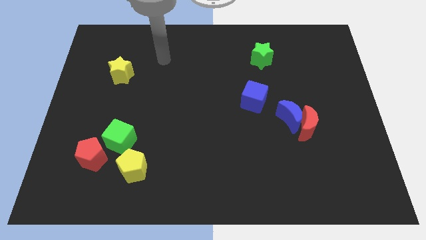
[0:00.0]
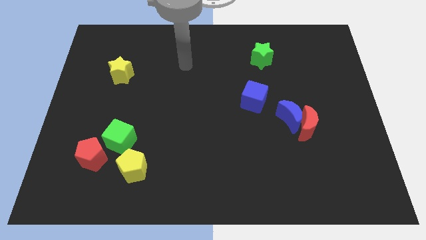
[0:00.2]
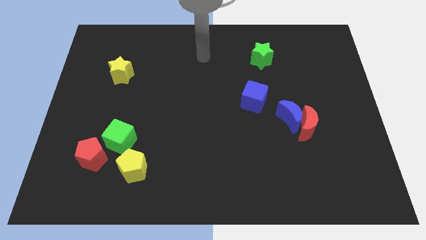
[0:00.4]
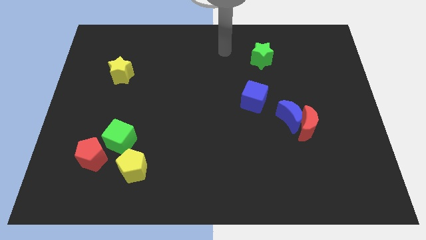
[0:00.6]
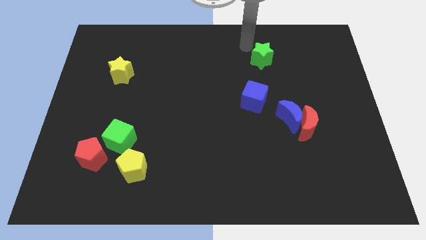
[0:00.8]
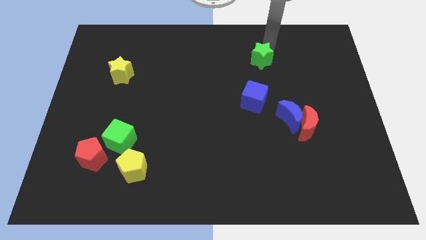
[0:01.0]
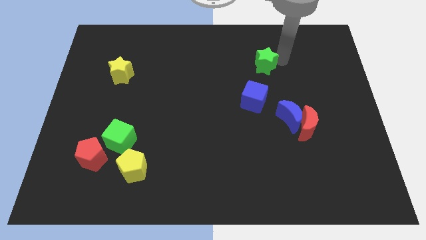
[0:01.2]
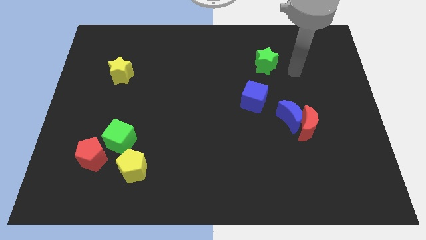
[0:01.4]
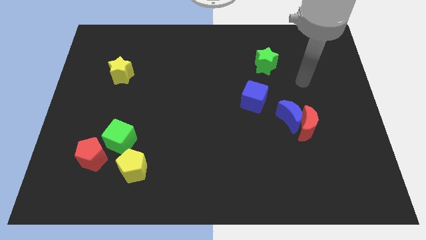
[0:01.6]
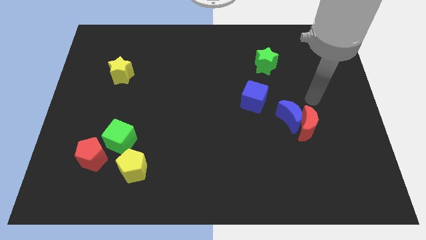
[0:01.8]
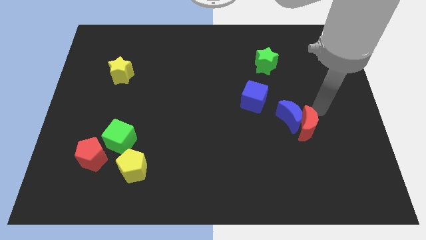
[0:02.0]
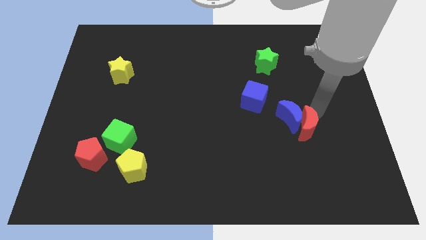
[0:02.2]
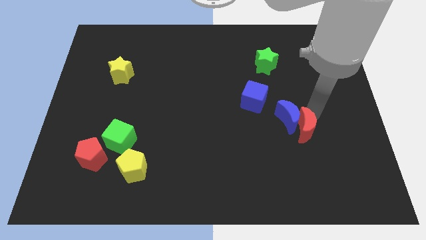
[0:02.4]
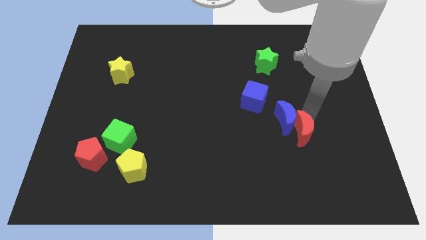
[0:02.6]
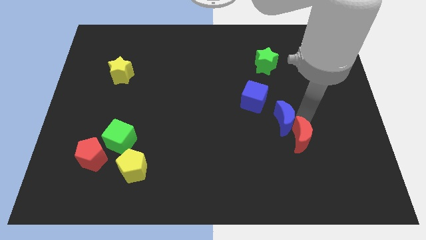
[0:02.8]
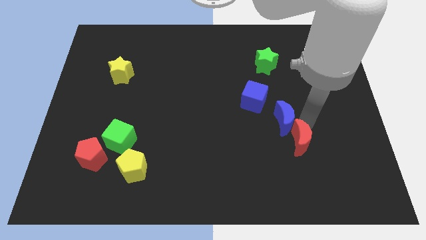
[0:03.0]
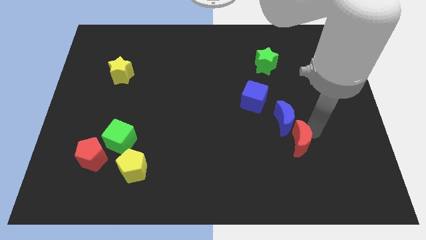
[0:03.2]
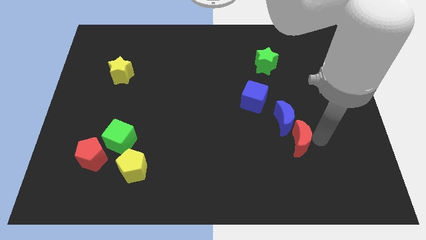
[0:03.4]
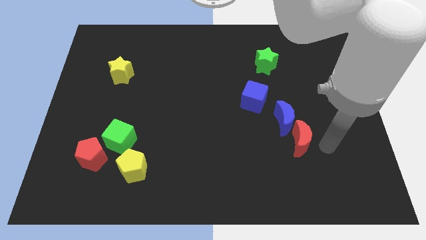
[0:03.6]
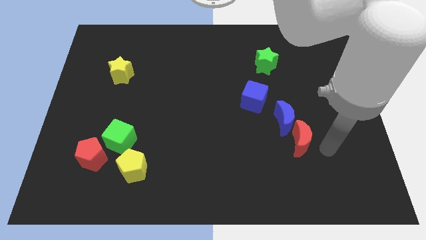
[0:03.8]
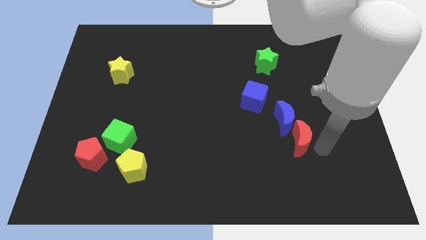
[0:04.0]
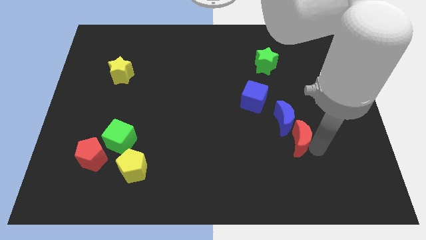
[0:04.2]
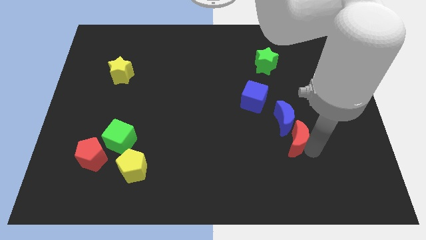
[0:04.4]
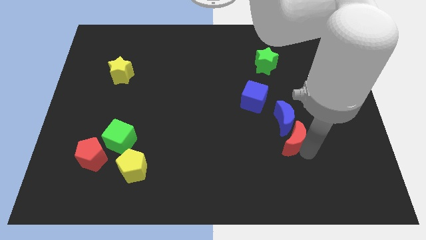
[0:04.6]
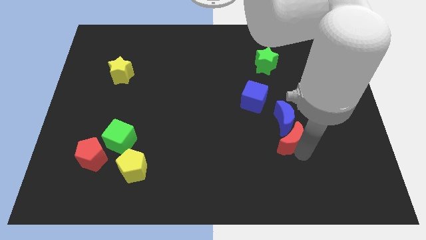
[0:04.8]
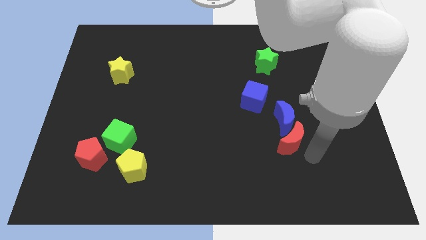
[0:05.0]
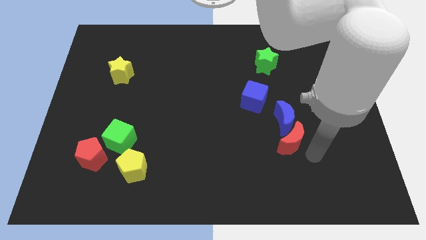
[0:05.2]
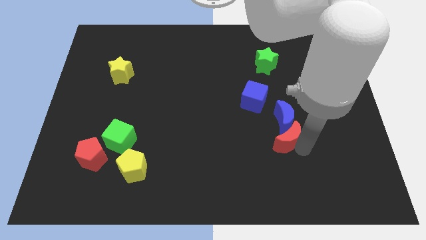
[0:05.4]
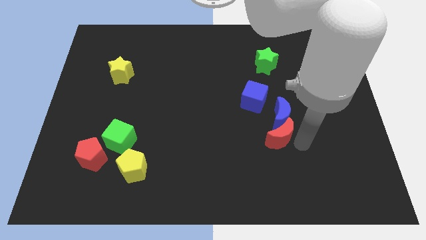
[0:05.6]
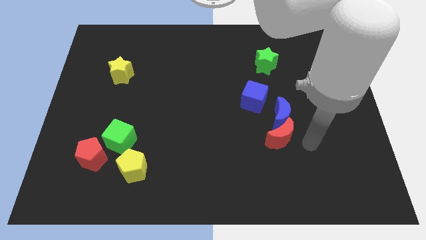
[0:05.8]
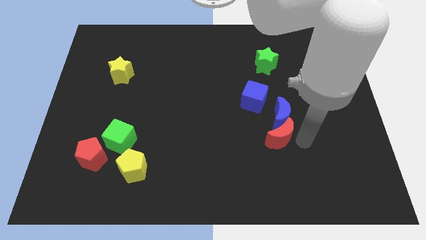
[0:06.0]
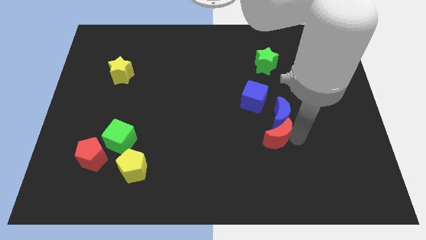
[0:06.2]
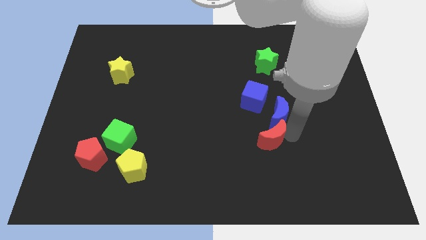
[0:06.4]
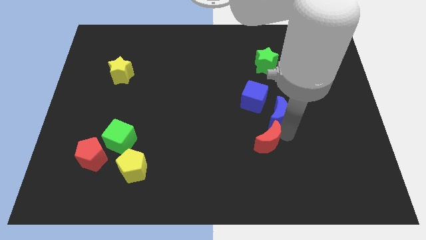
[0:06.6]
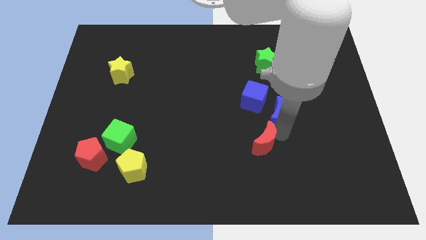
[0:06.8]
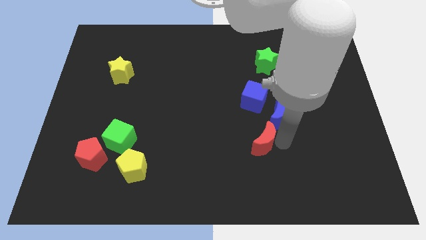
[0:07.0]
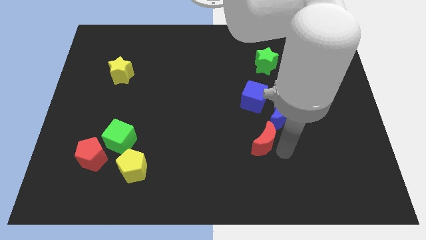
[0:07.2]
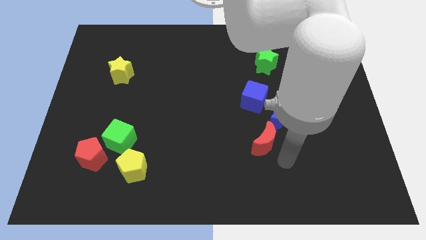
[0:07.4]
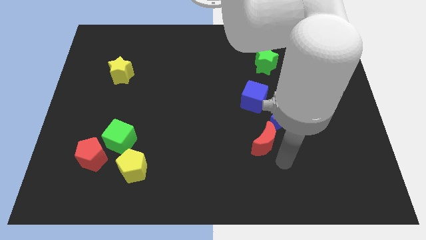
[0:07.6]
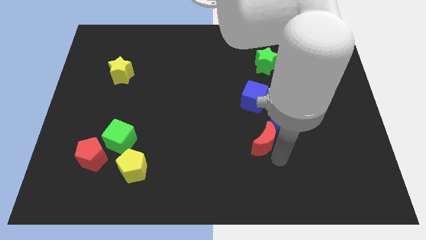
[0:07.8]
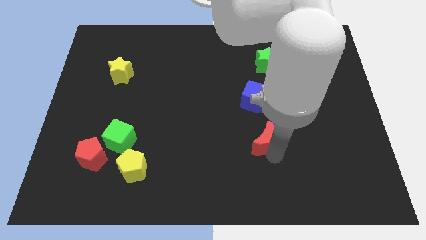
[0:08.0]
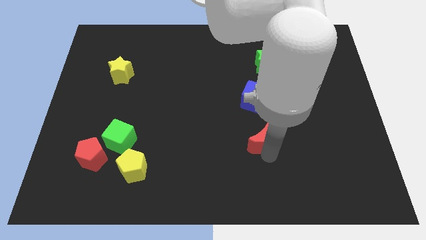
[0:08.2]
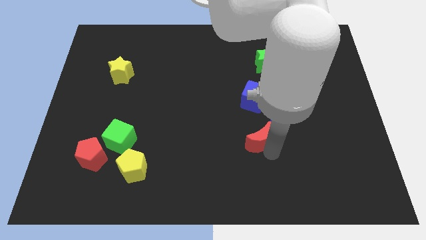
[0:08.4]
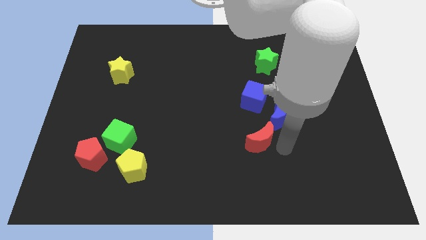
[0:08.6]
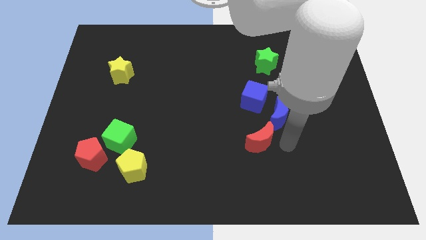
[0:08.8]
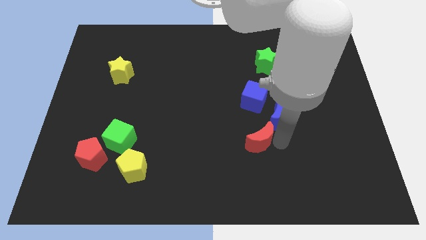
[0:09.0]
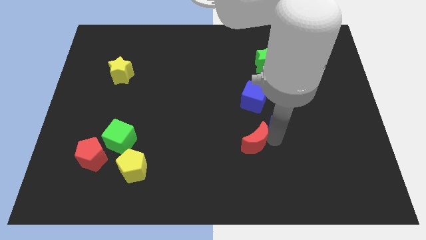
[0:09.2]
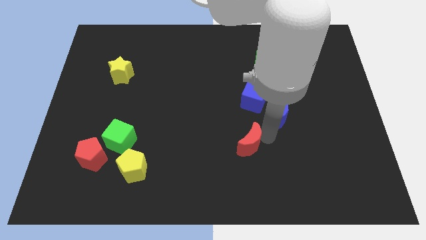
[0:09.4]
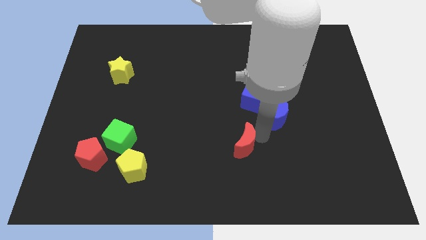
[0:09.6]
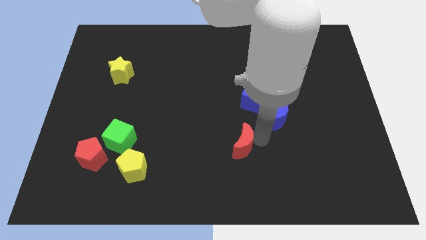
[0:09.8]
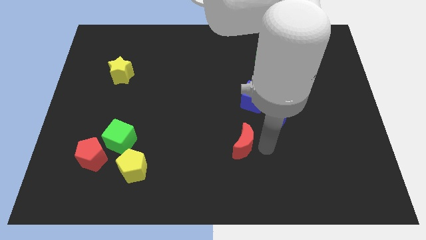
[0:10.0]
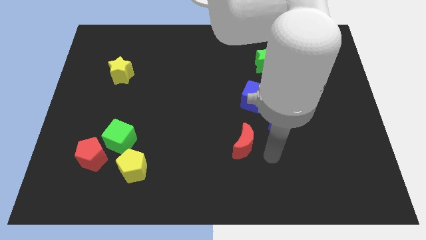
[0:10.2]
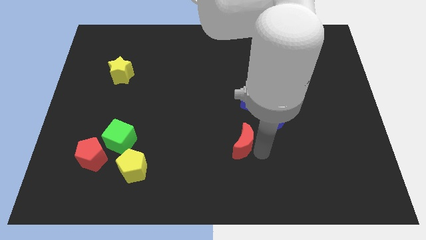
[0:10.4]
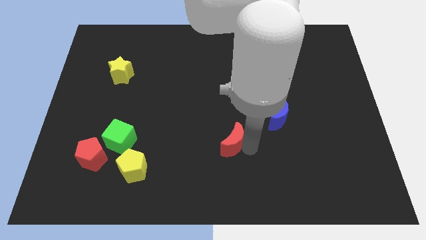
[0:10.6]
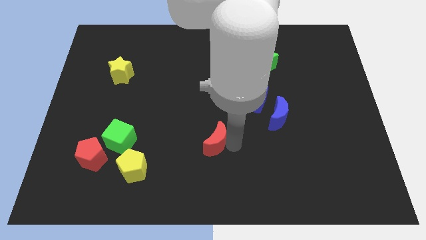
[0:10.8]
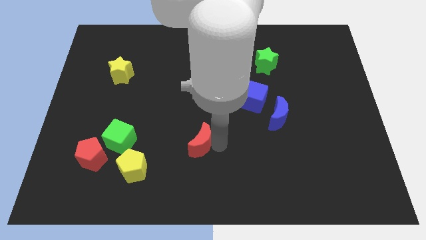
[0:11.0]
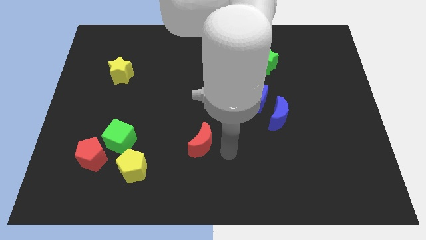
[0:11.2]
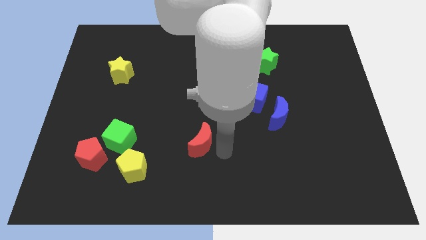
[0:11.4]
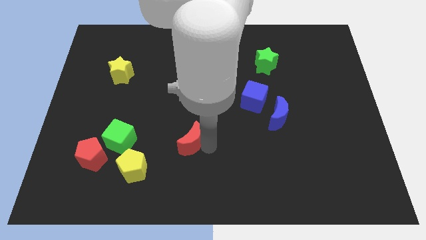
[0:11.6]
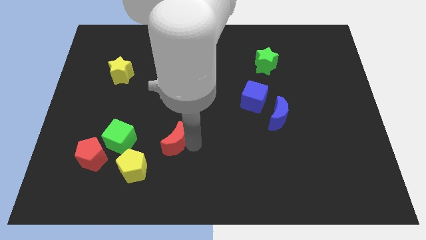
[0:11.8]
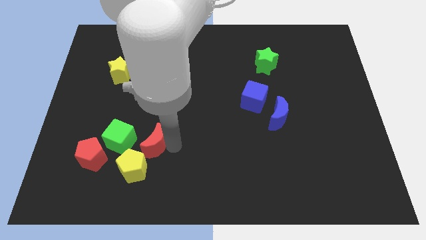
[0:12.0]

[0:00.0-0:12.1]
push the red moon to the top side of the yellow pentagon
